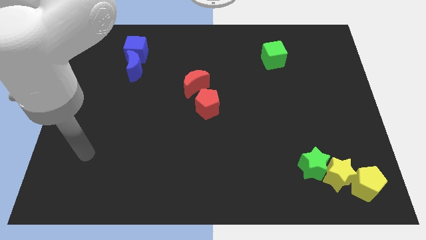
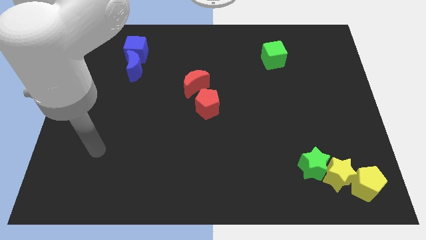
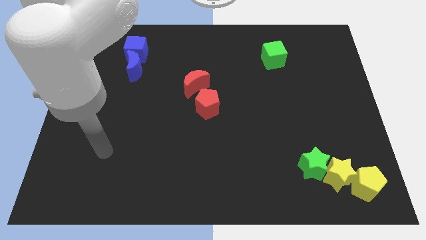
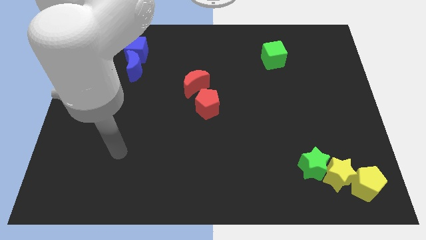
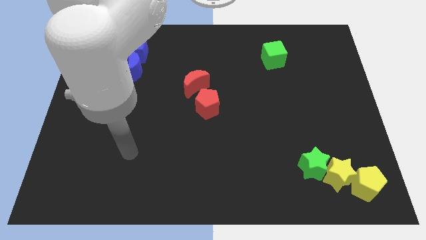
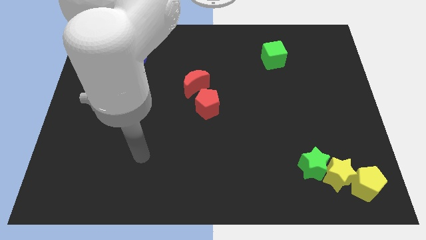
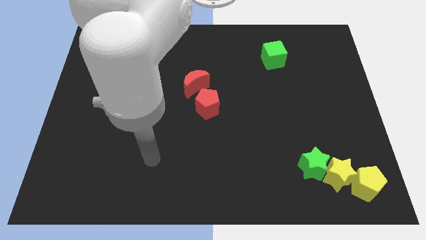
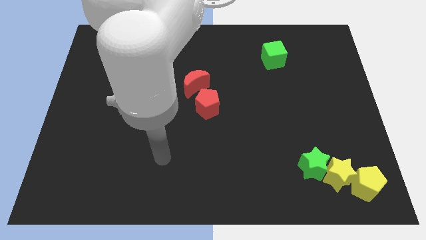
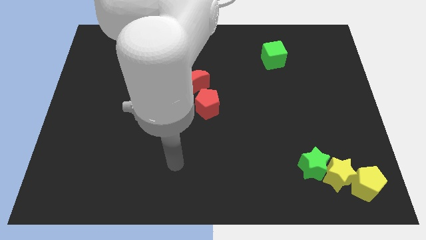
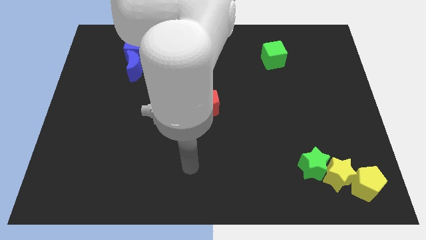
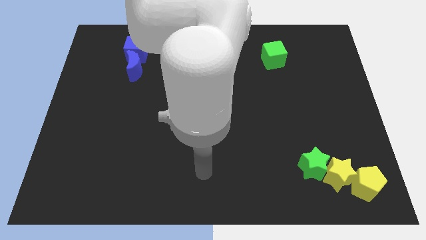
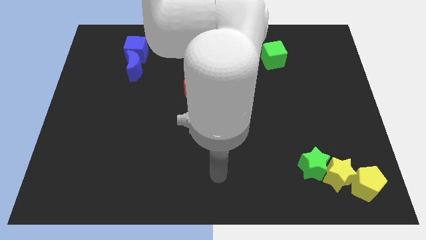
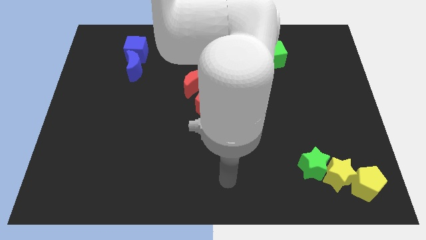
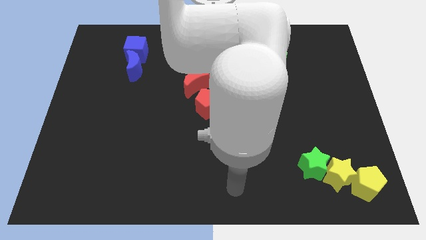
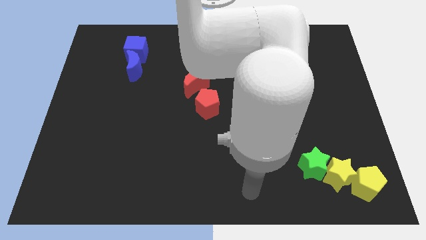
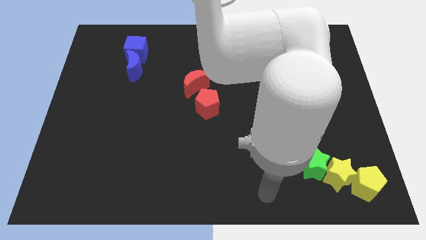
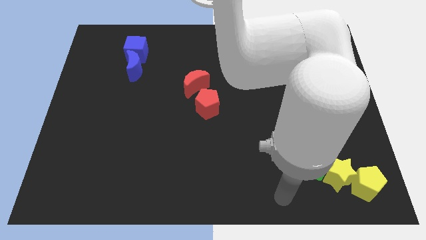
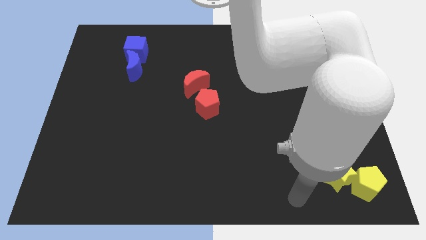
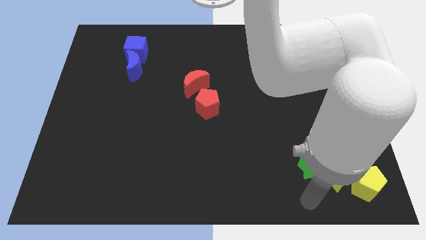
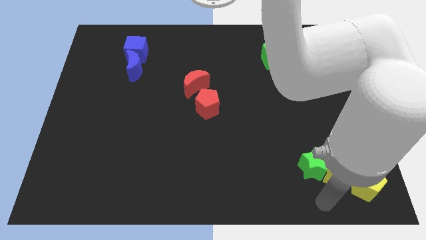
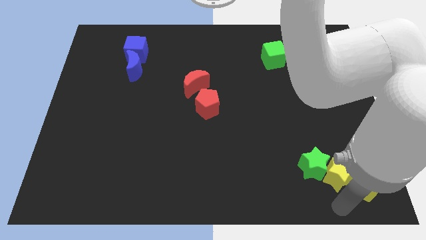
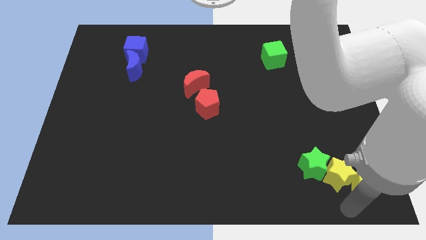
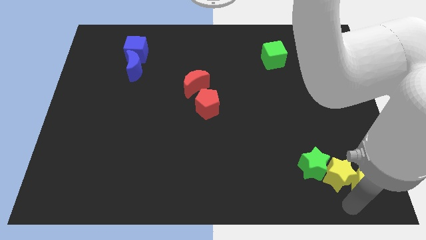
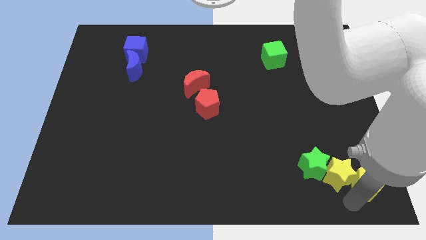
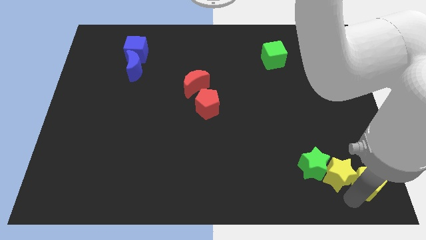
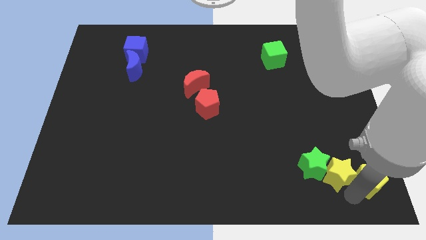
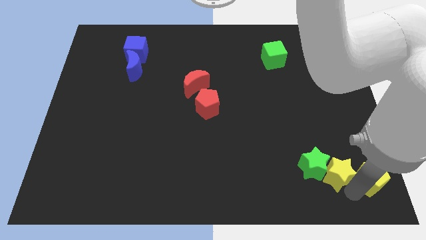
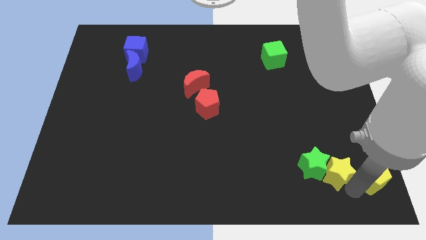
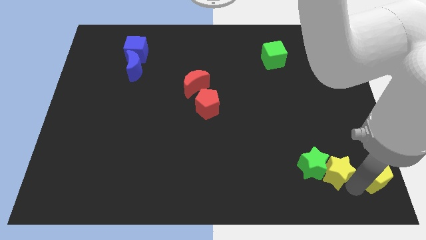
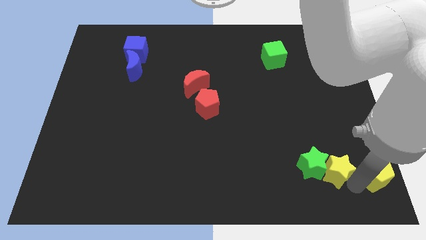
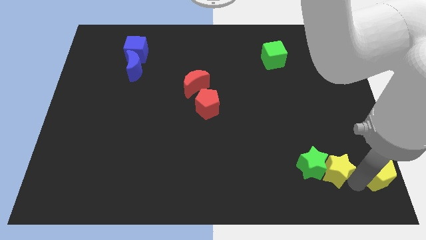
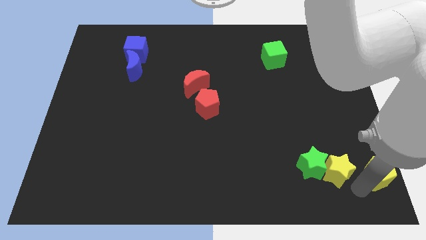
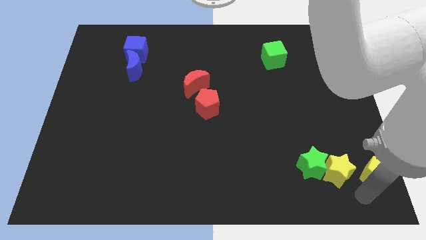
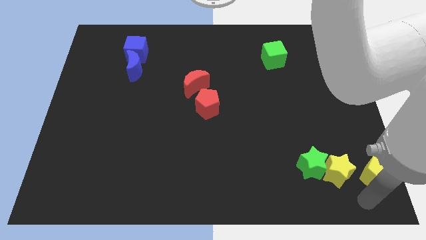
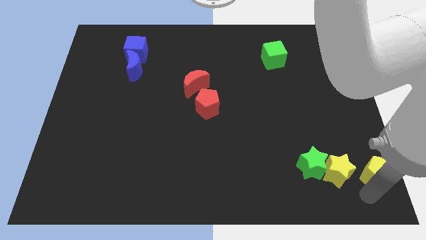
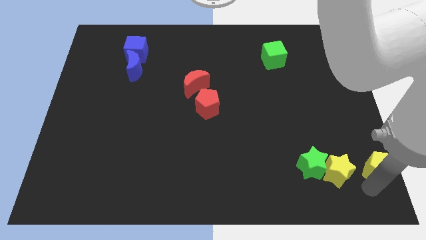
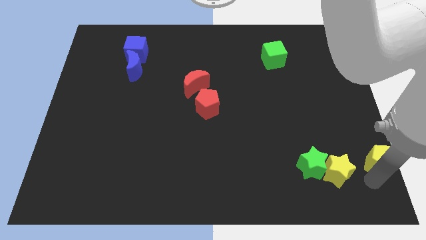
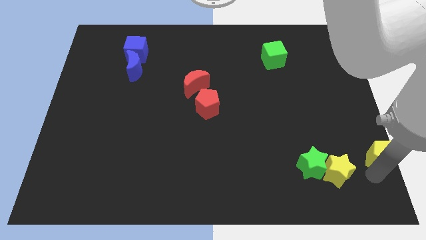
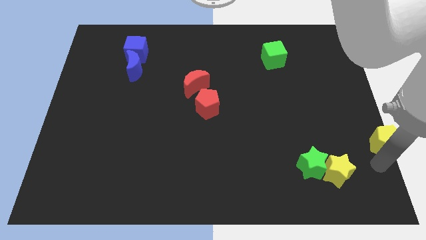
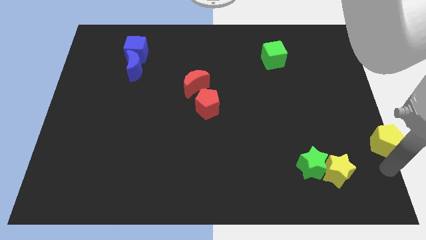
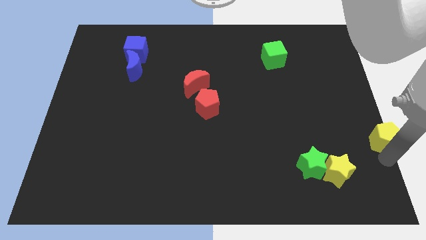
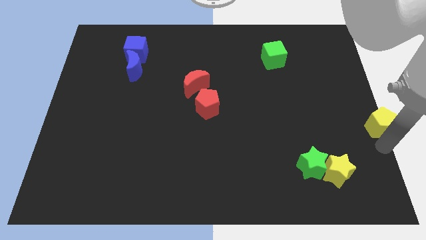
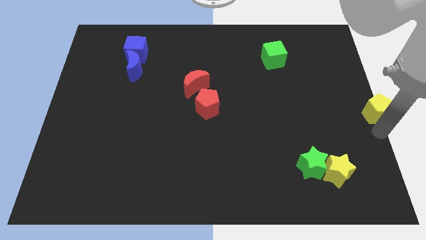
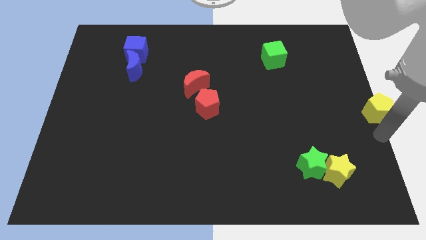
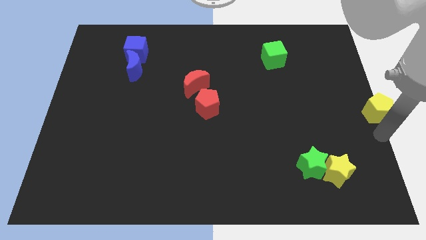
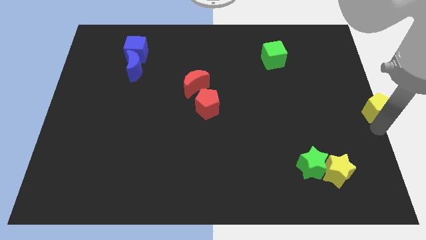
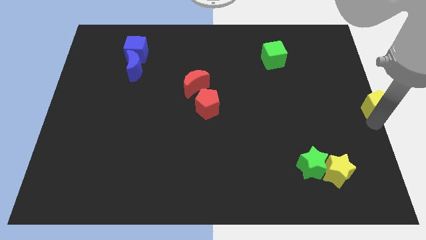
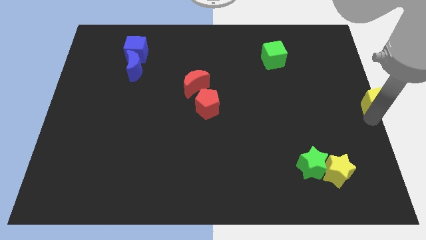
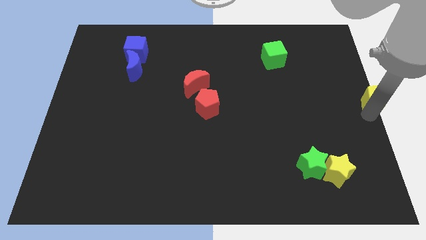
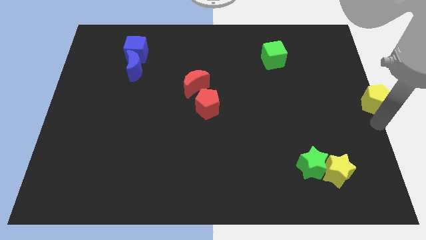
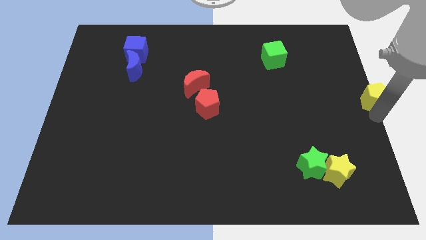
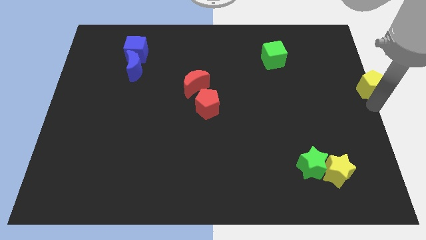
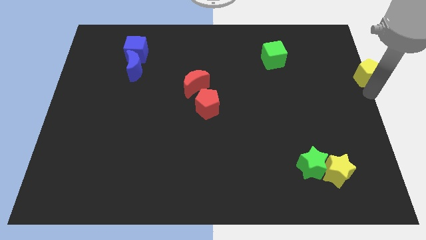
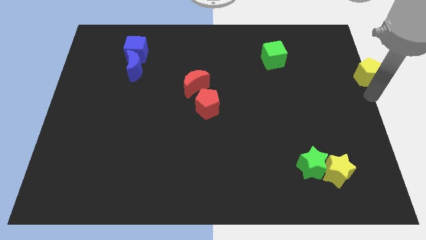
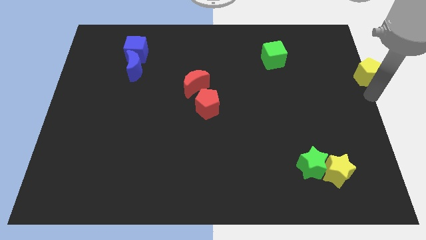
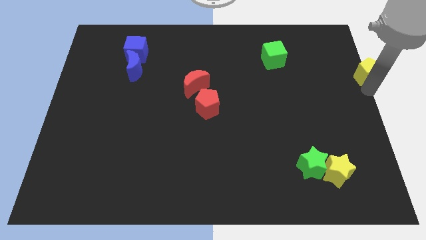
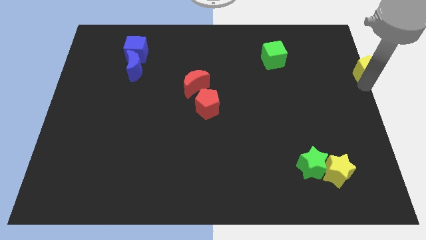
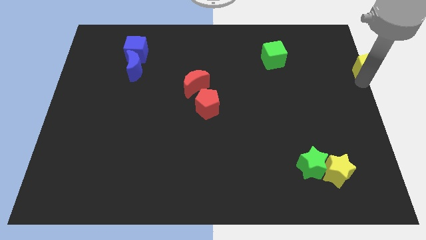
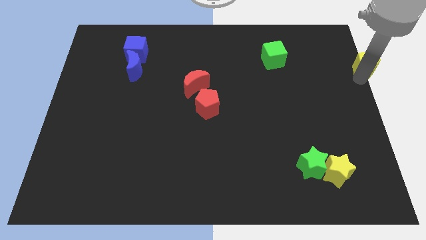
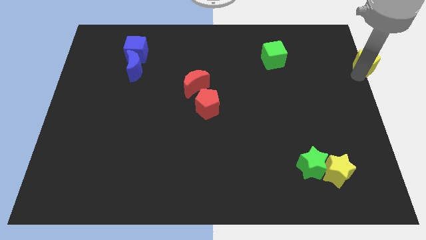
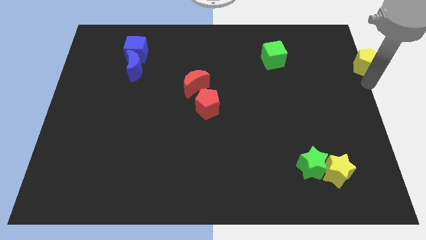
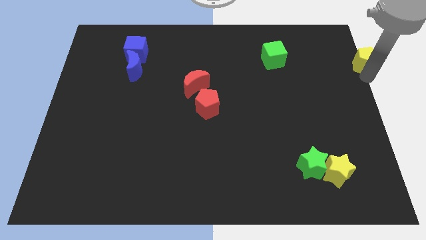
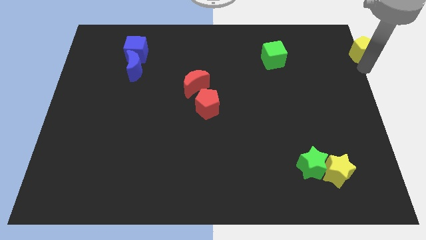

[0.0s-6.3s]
slide the yellow pentagon to the top right

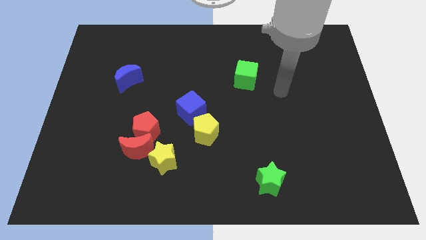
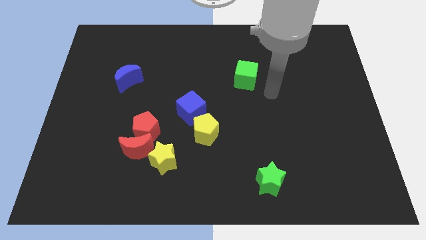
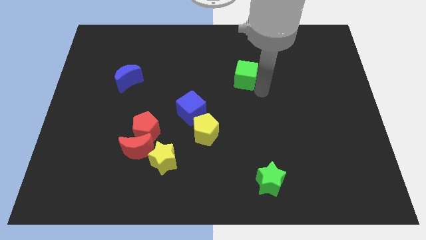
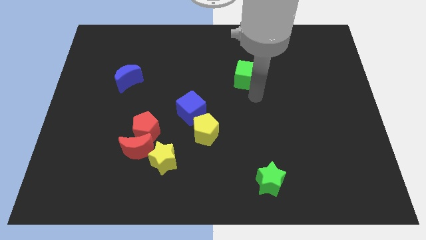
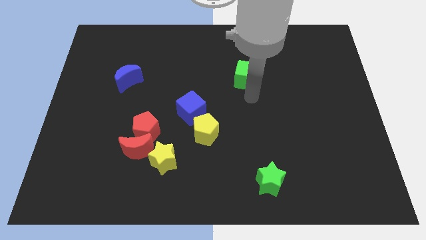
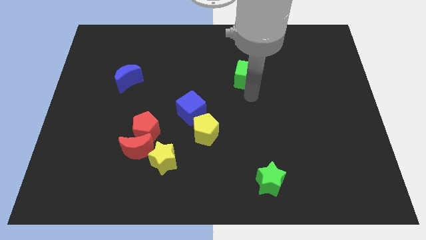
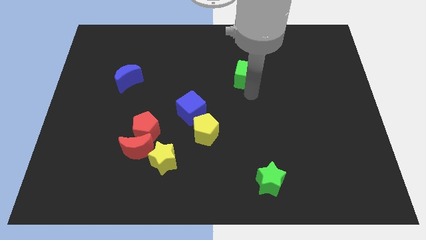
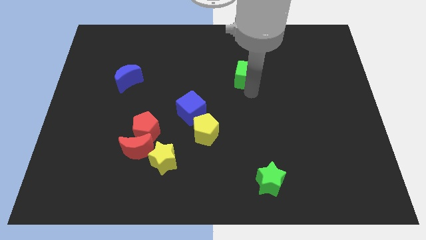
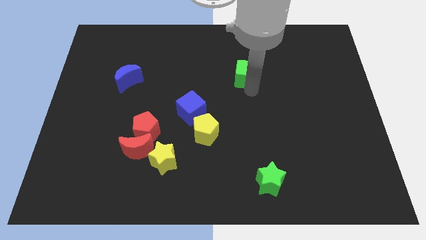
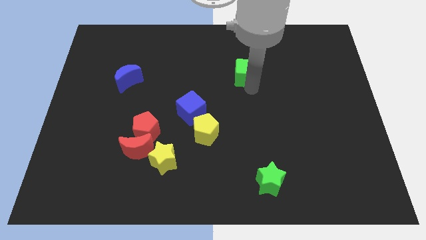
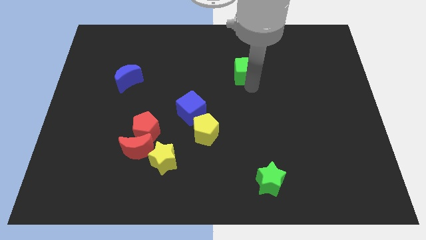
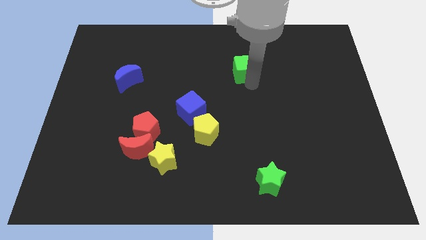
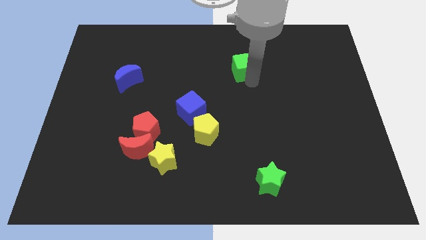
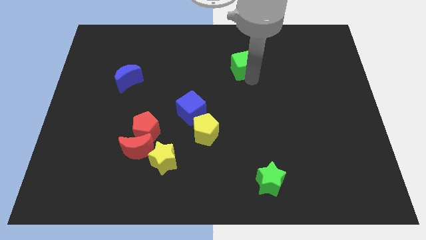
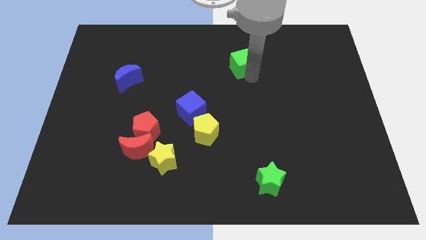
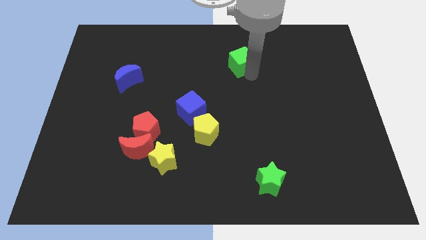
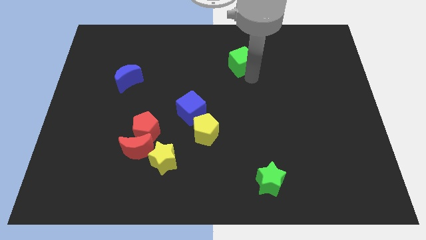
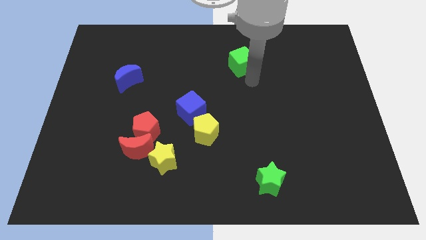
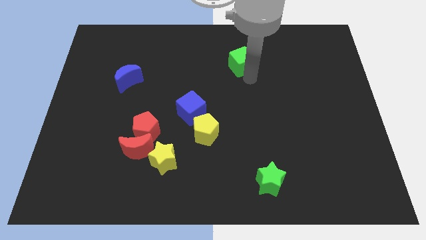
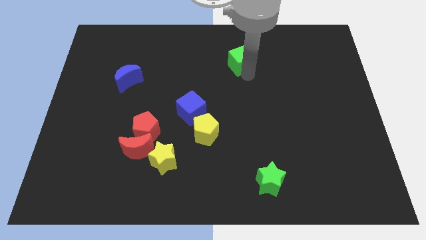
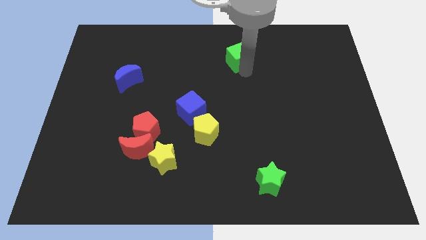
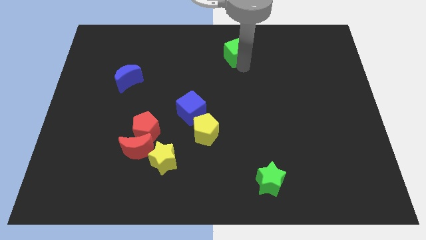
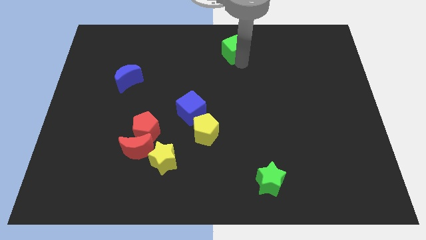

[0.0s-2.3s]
put the green cube to the top side
